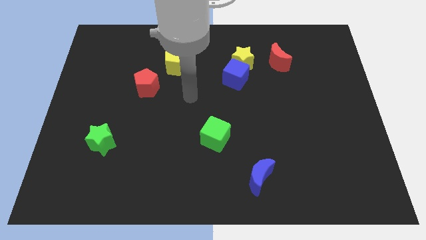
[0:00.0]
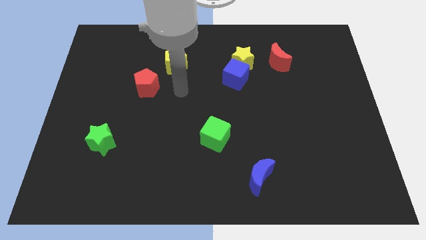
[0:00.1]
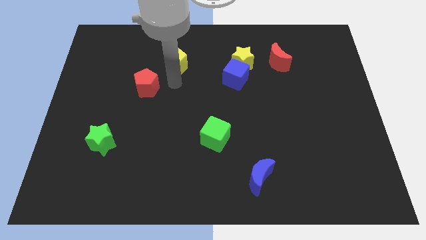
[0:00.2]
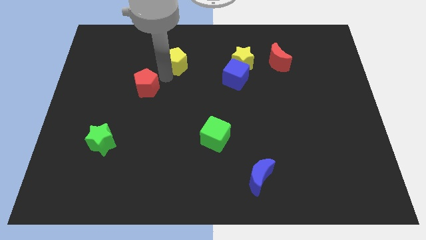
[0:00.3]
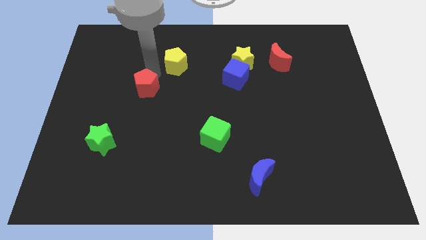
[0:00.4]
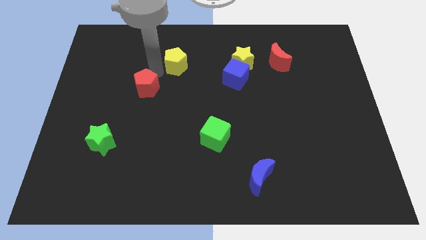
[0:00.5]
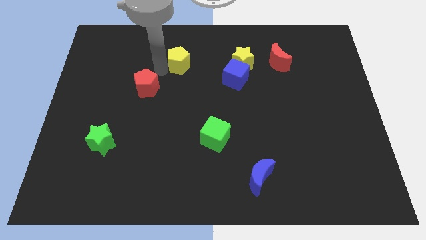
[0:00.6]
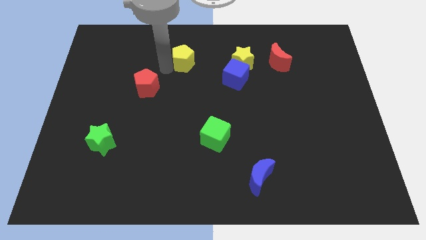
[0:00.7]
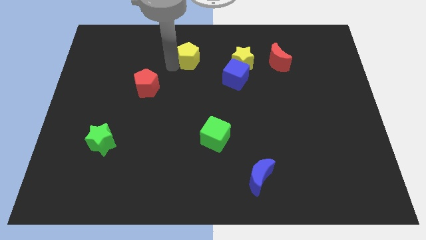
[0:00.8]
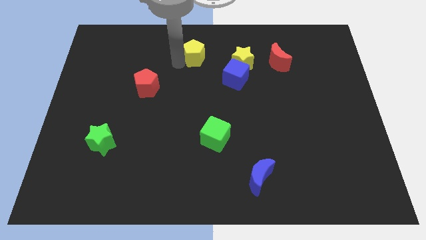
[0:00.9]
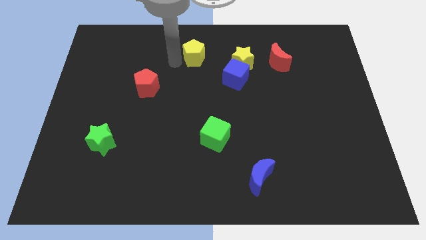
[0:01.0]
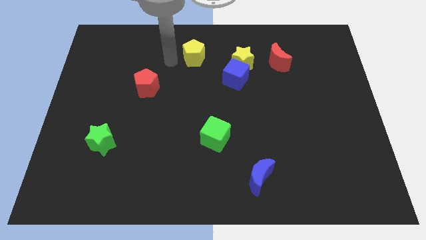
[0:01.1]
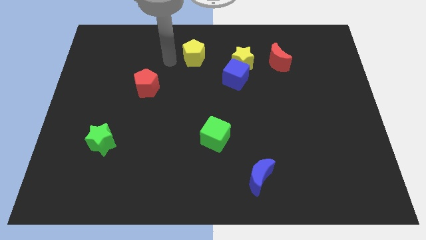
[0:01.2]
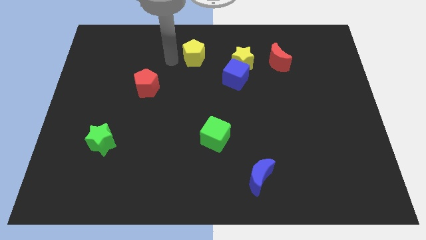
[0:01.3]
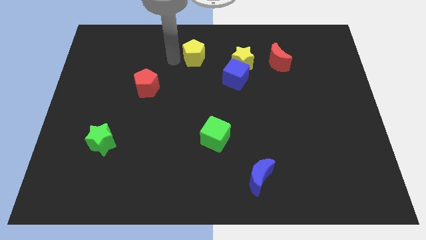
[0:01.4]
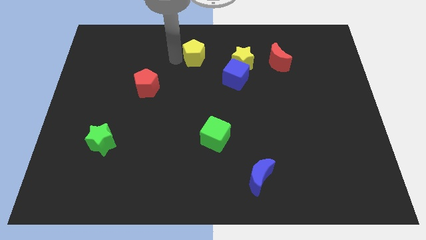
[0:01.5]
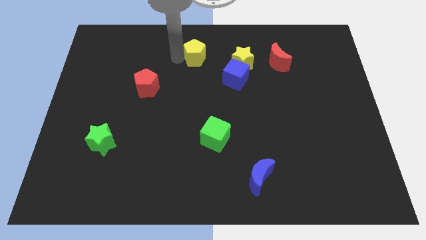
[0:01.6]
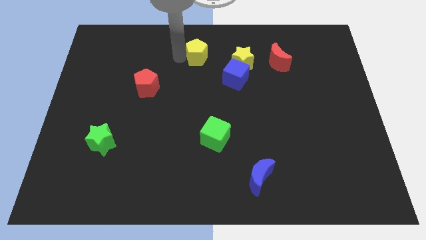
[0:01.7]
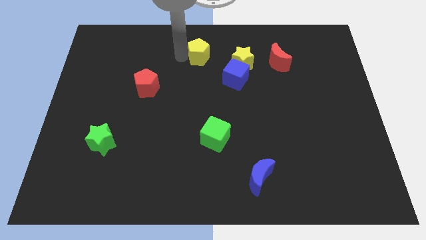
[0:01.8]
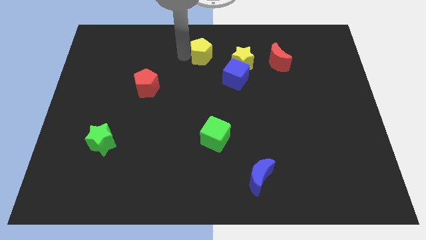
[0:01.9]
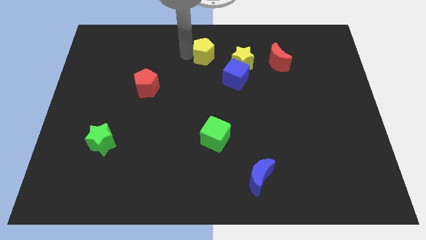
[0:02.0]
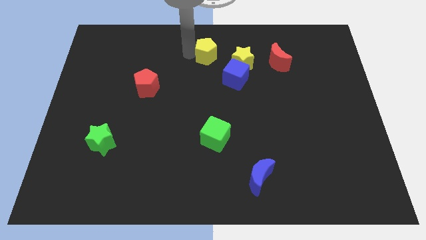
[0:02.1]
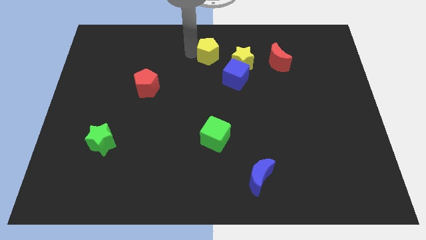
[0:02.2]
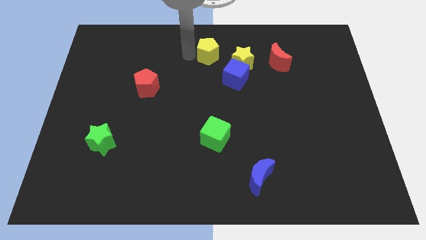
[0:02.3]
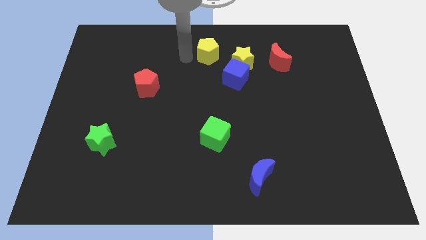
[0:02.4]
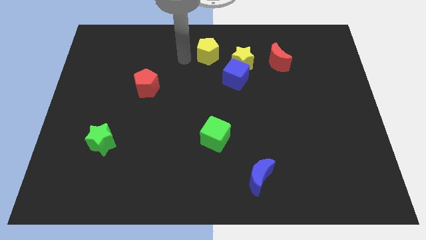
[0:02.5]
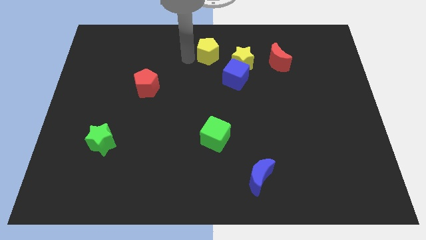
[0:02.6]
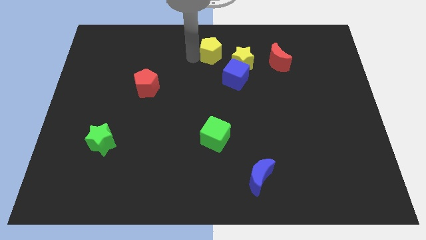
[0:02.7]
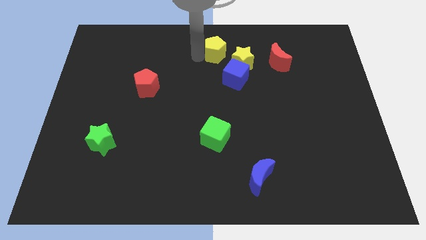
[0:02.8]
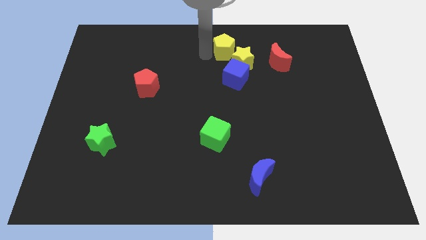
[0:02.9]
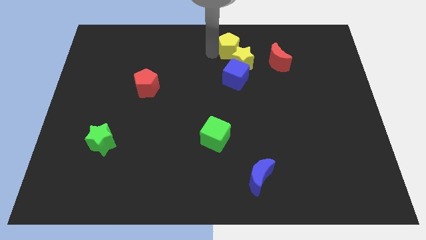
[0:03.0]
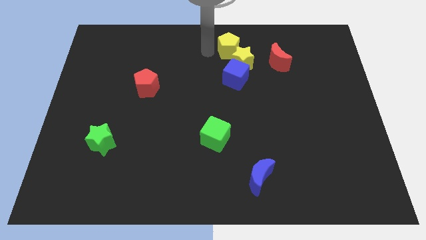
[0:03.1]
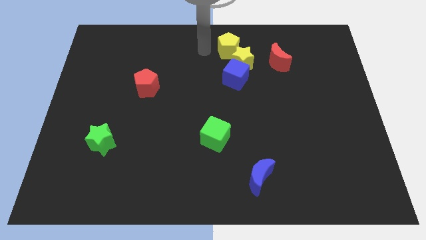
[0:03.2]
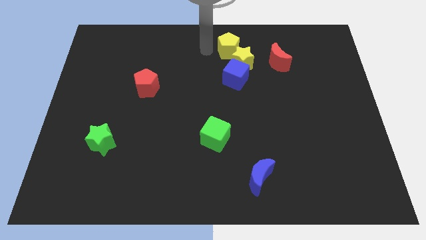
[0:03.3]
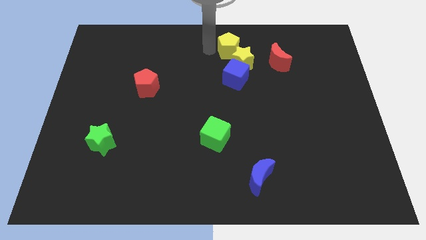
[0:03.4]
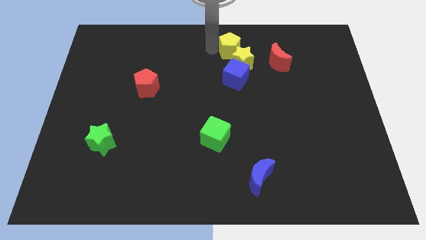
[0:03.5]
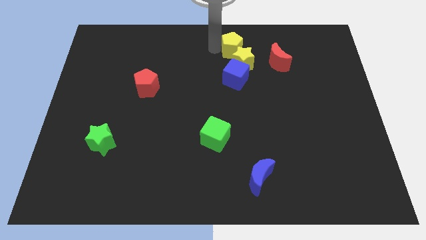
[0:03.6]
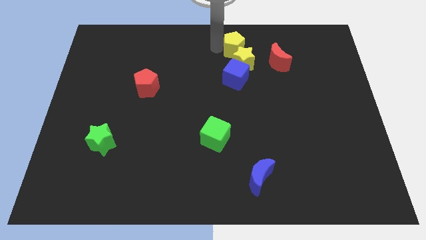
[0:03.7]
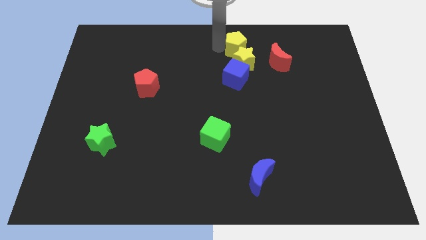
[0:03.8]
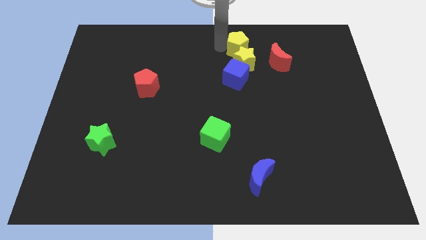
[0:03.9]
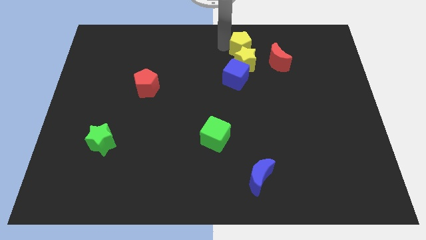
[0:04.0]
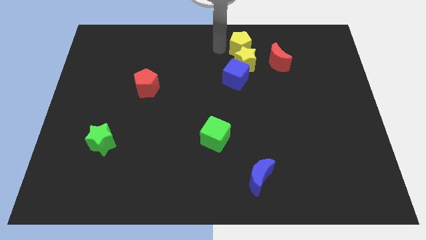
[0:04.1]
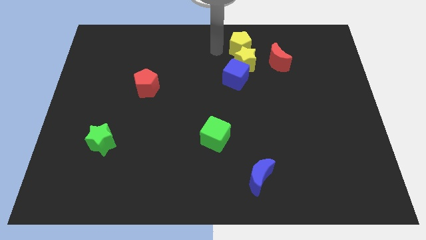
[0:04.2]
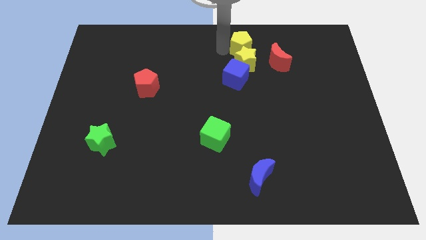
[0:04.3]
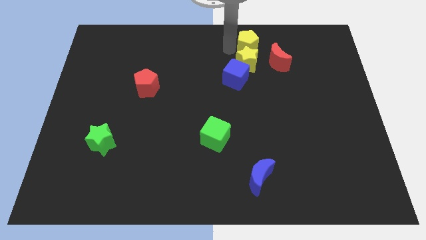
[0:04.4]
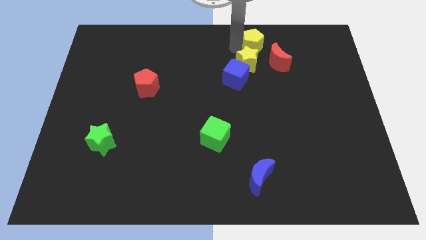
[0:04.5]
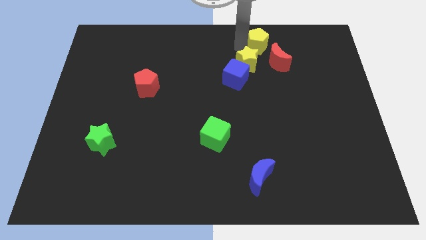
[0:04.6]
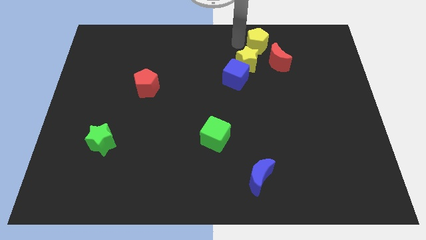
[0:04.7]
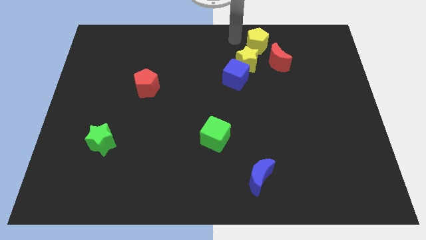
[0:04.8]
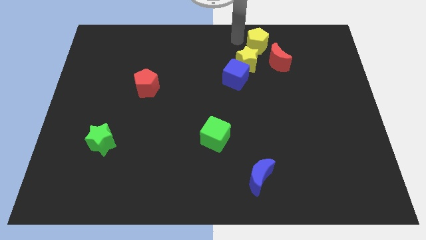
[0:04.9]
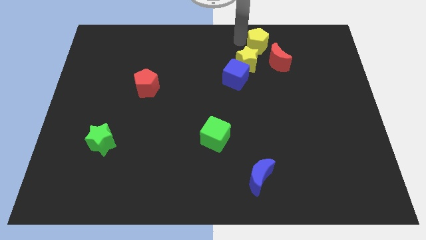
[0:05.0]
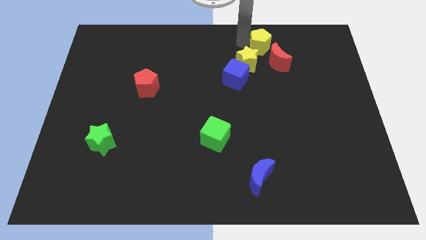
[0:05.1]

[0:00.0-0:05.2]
push the yellow pentagon right

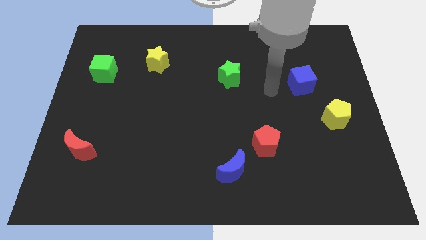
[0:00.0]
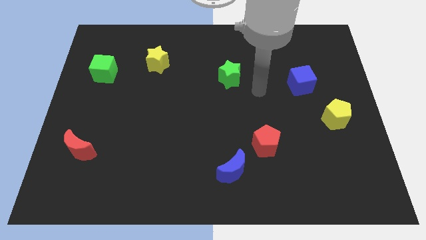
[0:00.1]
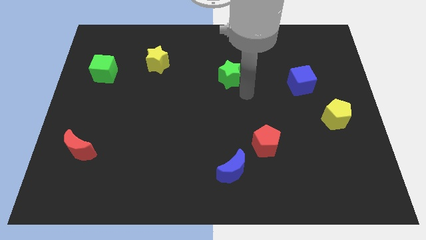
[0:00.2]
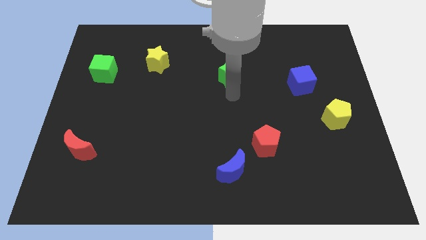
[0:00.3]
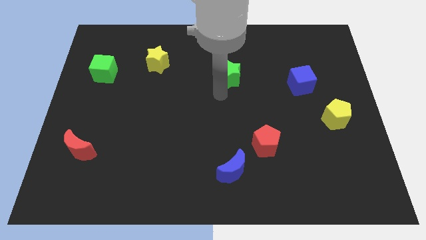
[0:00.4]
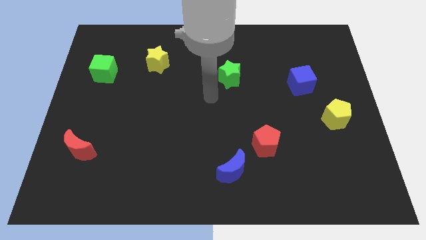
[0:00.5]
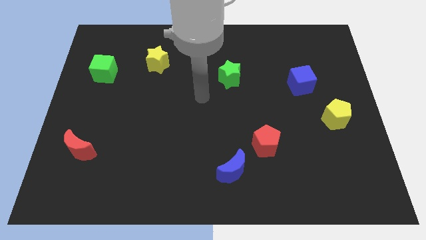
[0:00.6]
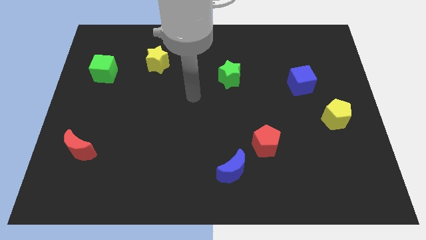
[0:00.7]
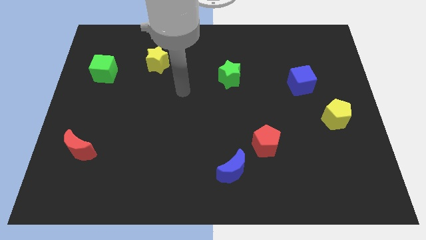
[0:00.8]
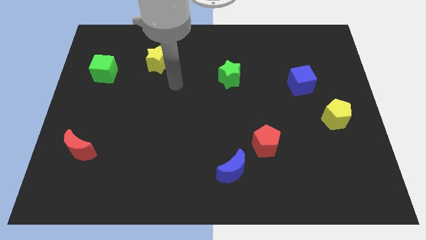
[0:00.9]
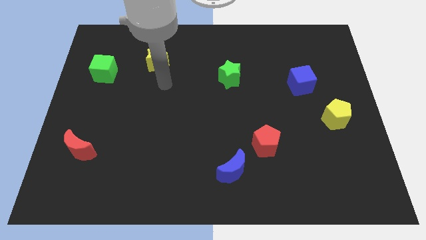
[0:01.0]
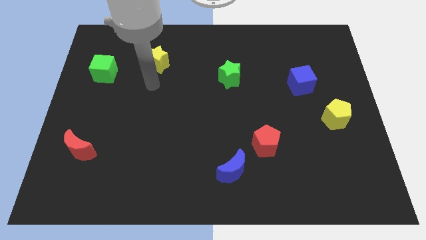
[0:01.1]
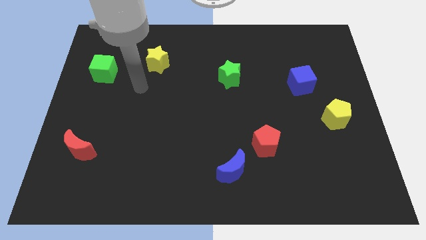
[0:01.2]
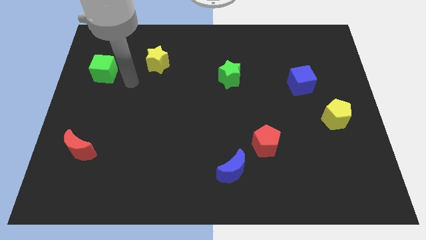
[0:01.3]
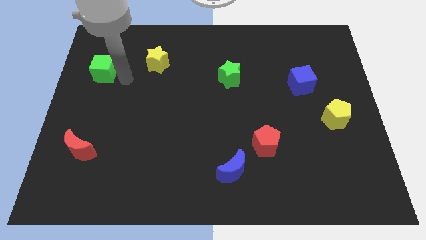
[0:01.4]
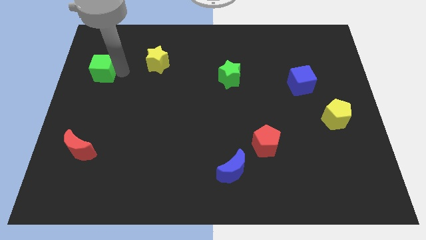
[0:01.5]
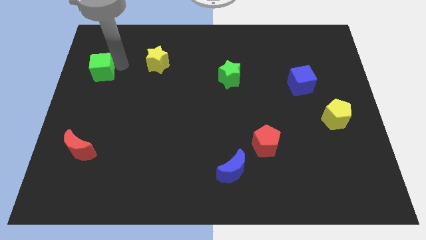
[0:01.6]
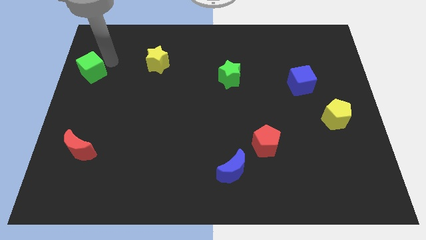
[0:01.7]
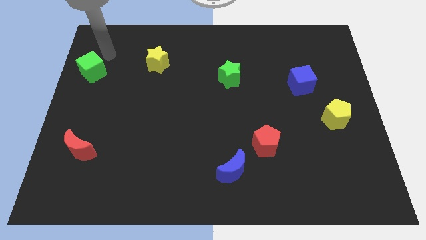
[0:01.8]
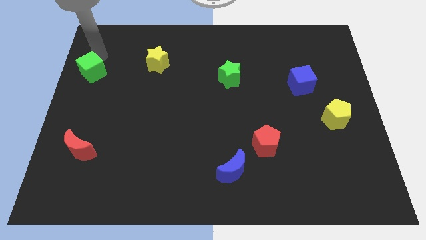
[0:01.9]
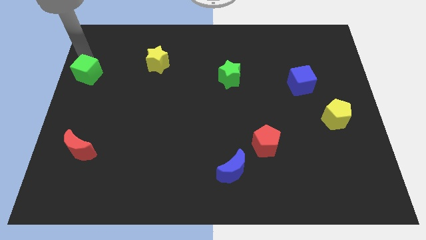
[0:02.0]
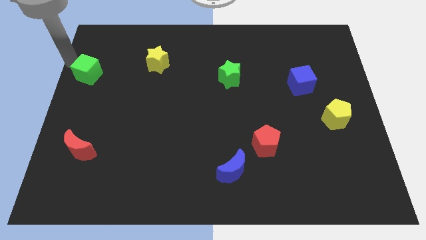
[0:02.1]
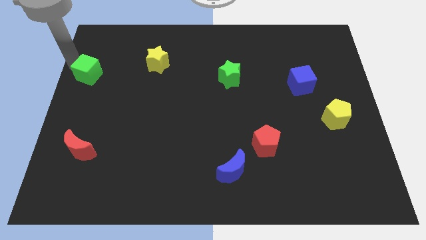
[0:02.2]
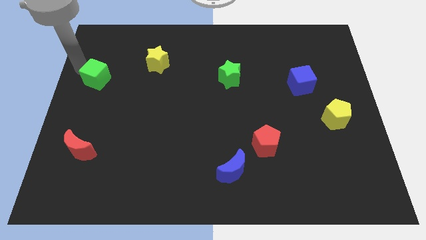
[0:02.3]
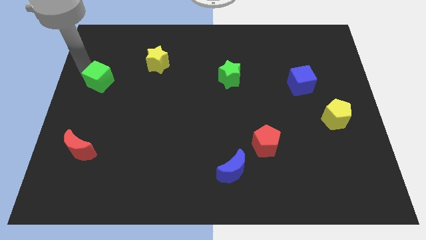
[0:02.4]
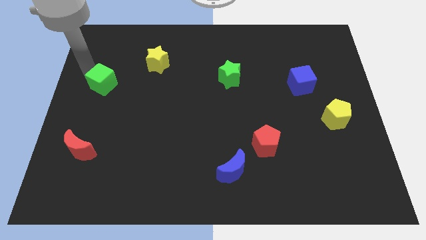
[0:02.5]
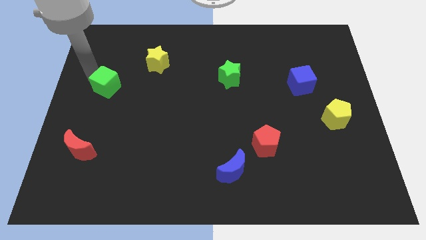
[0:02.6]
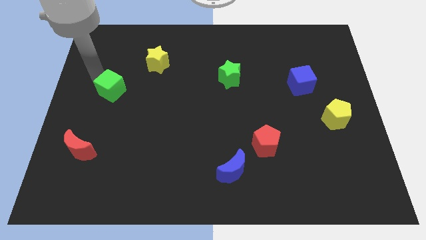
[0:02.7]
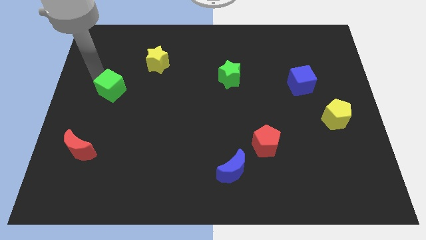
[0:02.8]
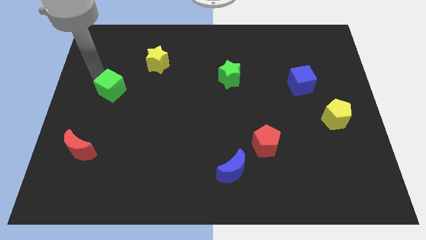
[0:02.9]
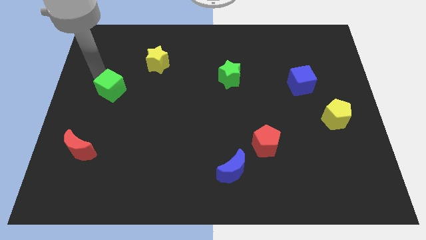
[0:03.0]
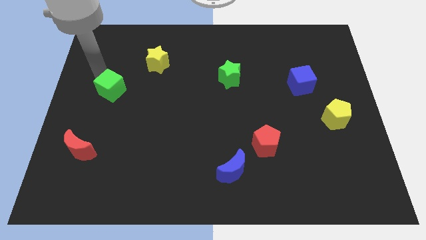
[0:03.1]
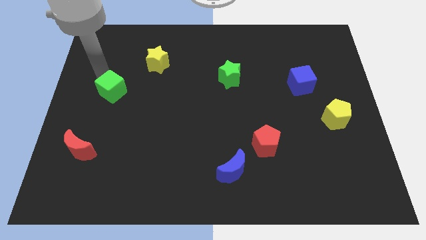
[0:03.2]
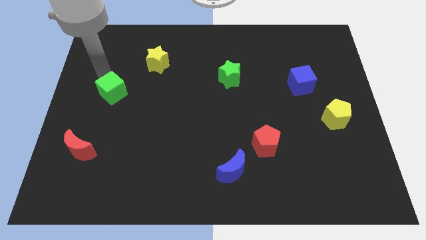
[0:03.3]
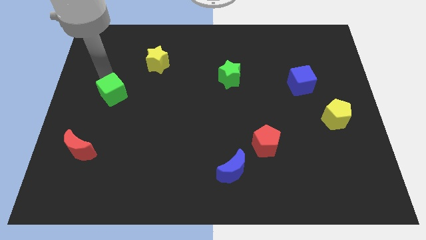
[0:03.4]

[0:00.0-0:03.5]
slightly push the green cube diagonally downwards and right
